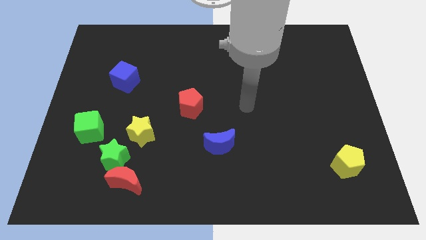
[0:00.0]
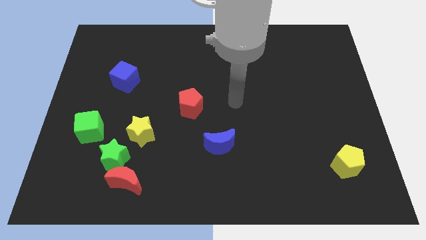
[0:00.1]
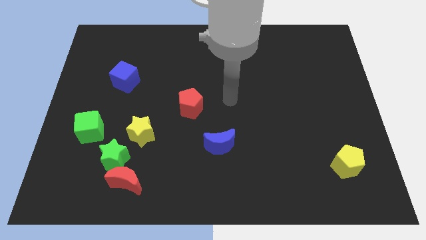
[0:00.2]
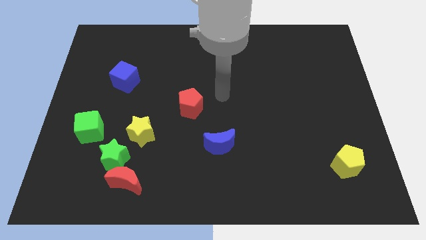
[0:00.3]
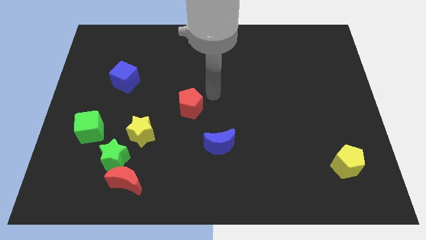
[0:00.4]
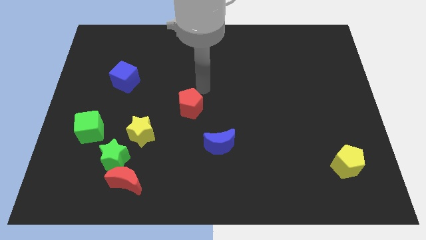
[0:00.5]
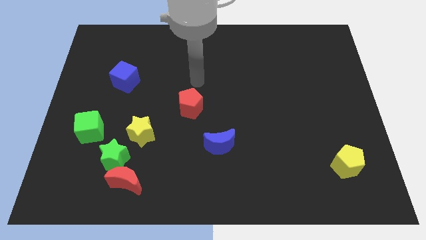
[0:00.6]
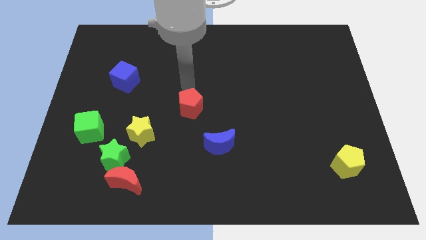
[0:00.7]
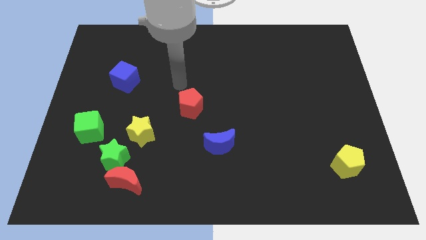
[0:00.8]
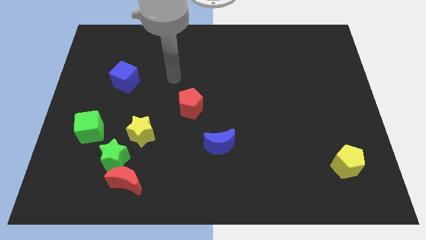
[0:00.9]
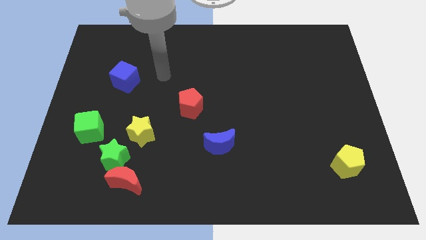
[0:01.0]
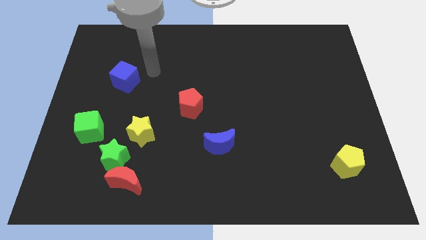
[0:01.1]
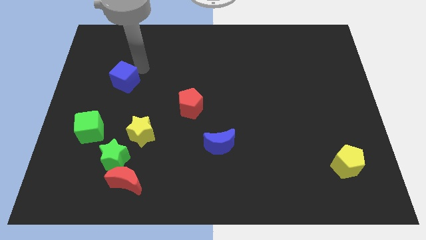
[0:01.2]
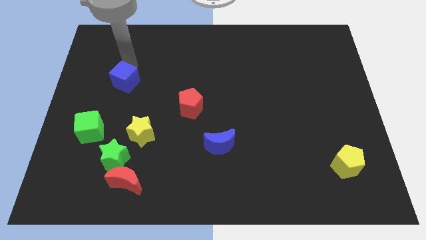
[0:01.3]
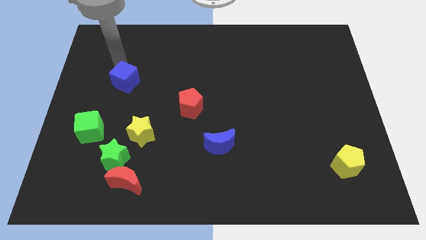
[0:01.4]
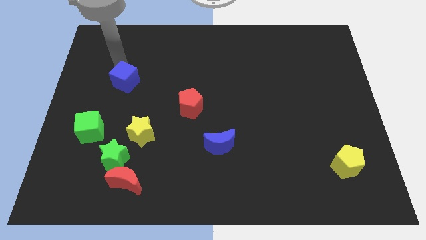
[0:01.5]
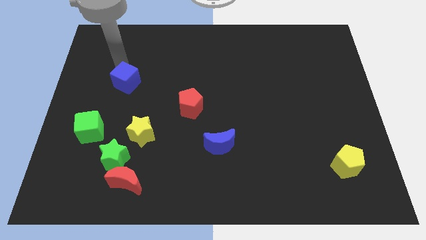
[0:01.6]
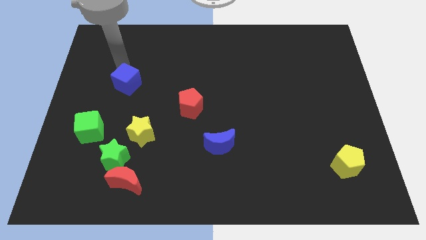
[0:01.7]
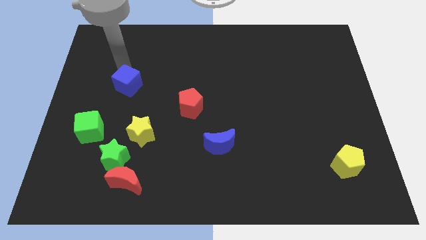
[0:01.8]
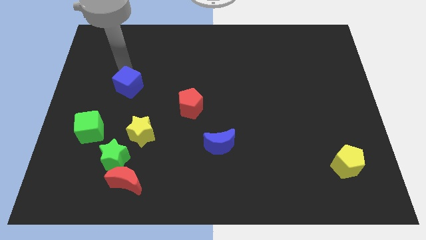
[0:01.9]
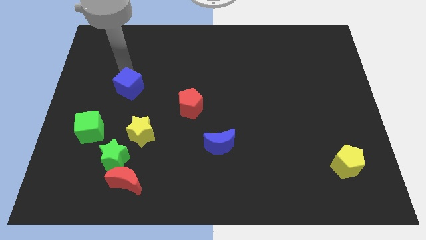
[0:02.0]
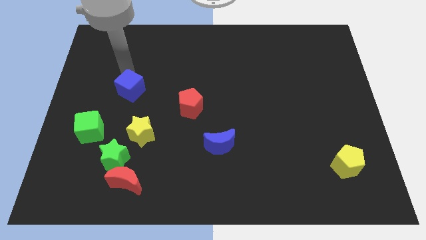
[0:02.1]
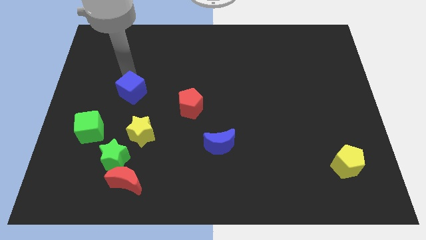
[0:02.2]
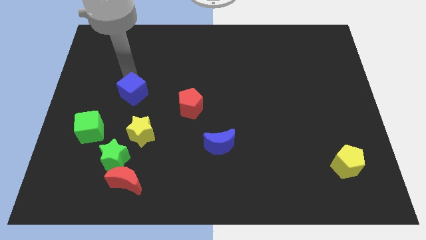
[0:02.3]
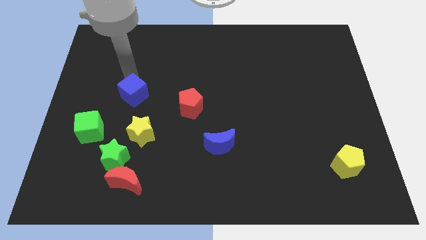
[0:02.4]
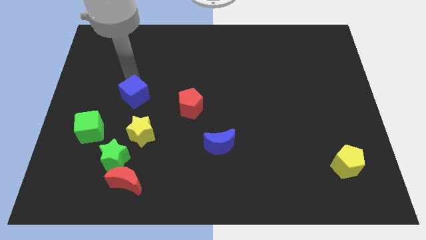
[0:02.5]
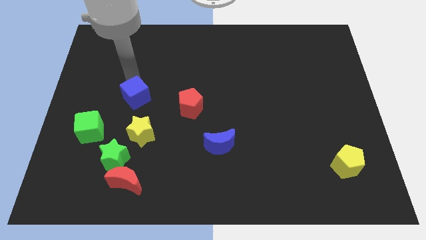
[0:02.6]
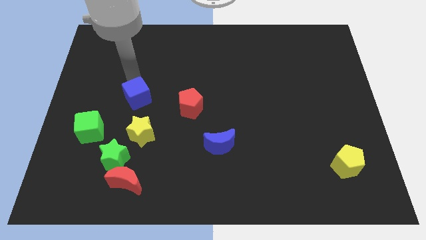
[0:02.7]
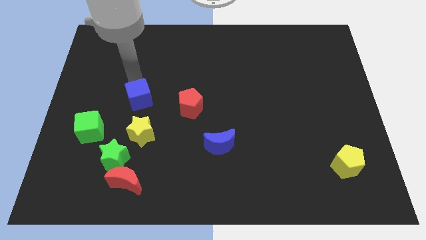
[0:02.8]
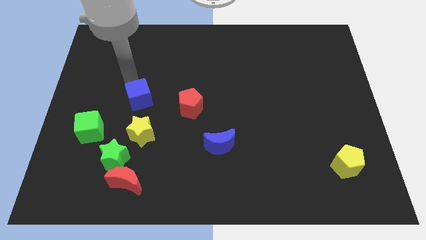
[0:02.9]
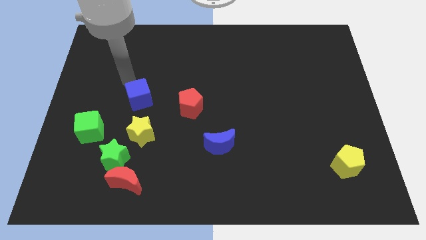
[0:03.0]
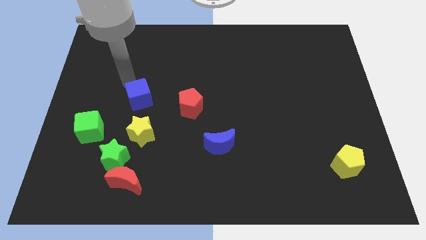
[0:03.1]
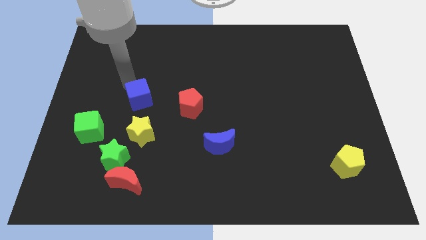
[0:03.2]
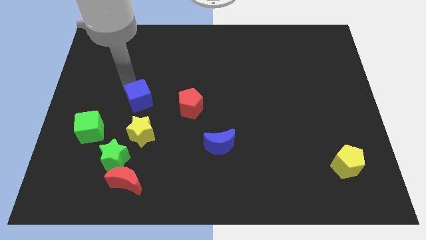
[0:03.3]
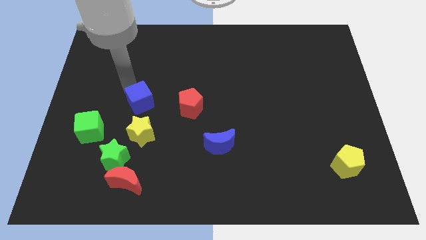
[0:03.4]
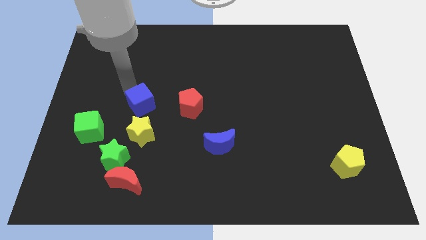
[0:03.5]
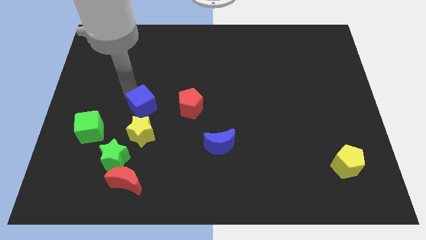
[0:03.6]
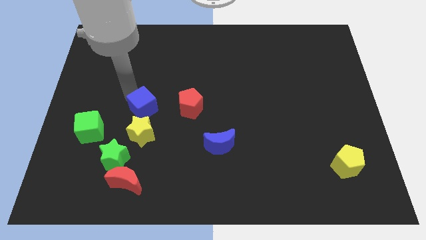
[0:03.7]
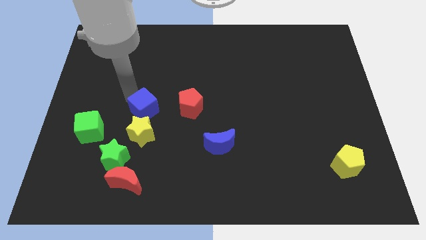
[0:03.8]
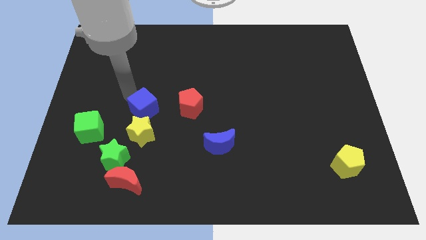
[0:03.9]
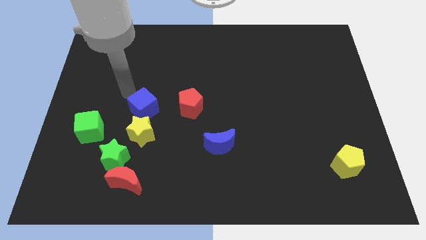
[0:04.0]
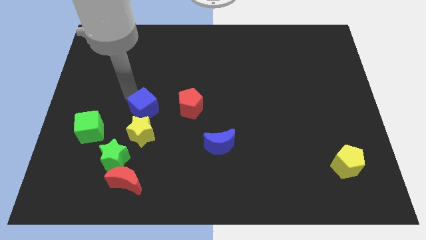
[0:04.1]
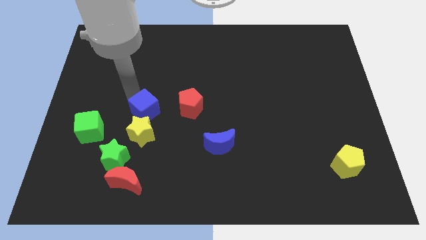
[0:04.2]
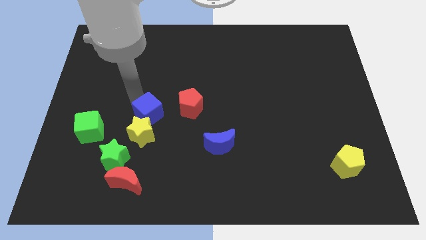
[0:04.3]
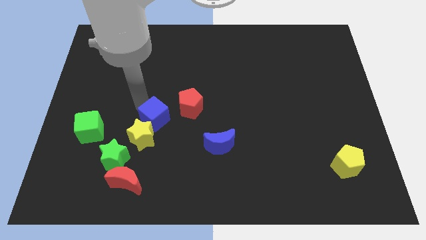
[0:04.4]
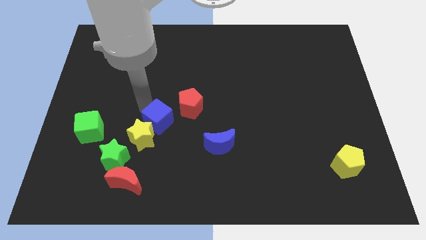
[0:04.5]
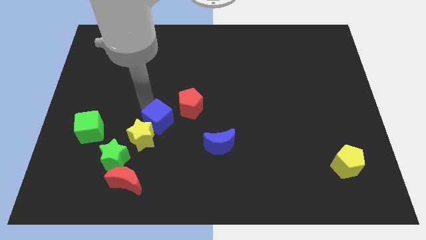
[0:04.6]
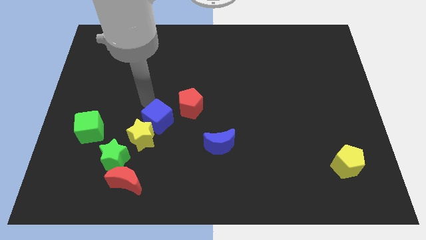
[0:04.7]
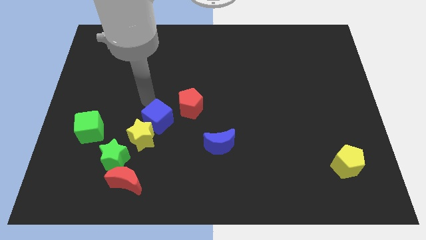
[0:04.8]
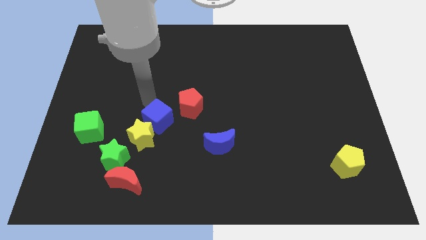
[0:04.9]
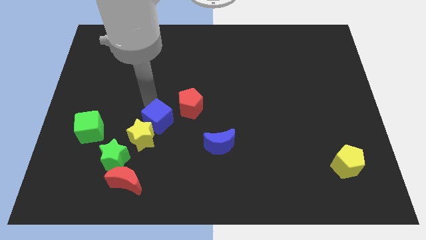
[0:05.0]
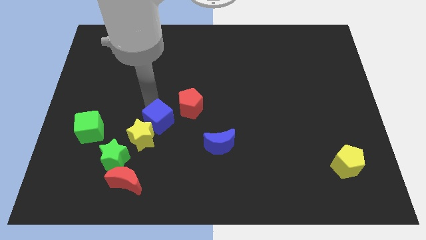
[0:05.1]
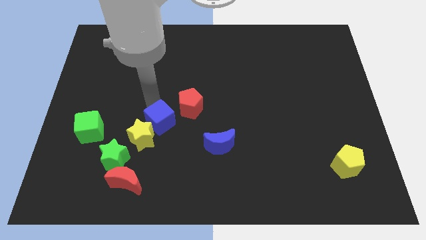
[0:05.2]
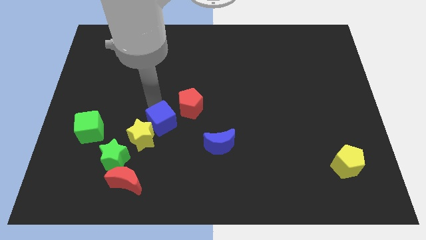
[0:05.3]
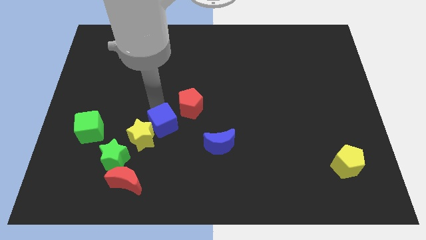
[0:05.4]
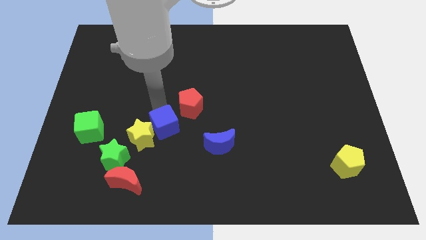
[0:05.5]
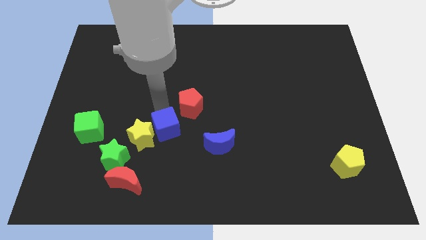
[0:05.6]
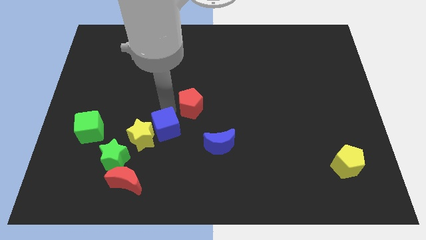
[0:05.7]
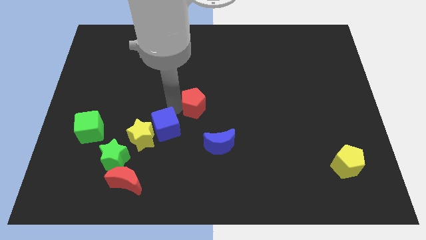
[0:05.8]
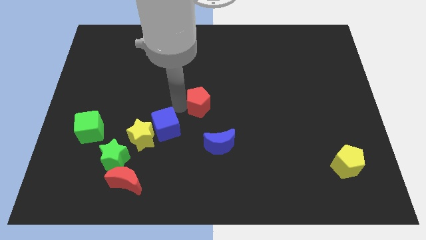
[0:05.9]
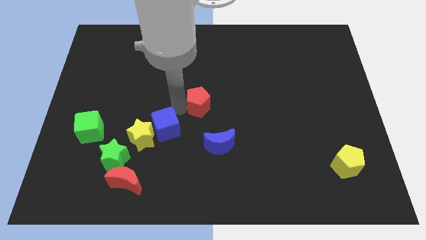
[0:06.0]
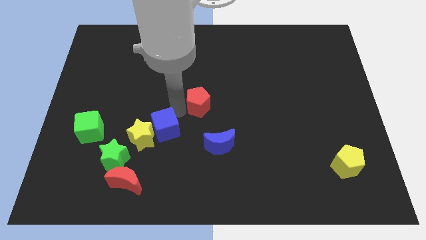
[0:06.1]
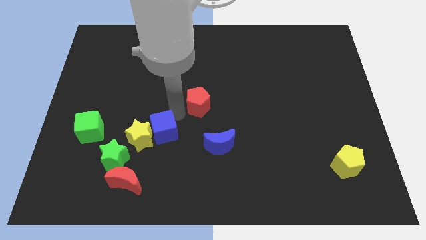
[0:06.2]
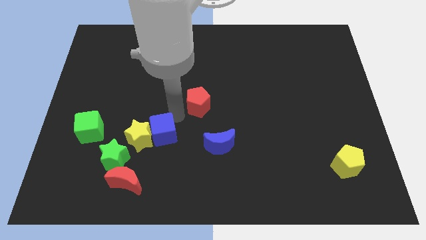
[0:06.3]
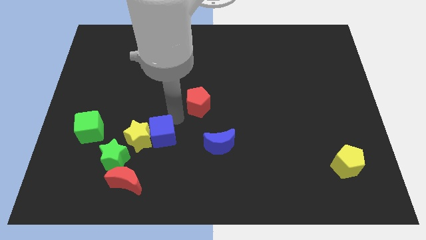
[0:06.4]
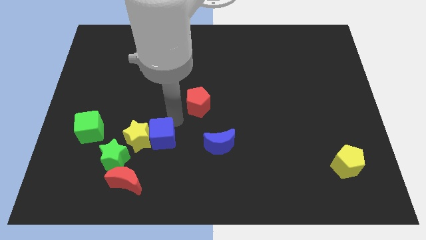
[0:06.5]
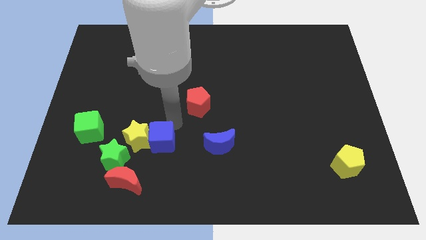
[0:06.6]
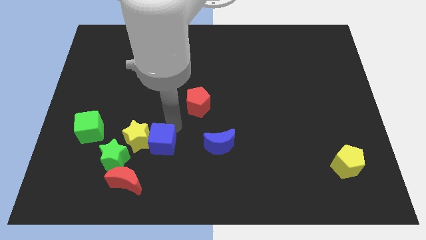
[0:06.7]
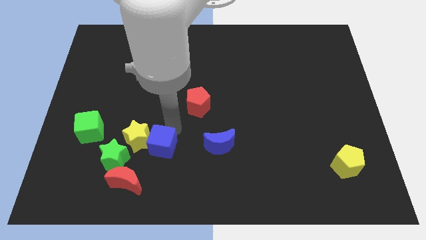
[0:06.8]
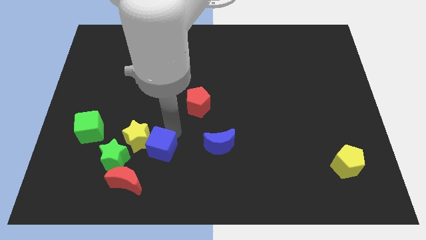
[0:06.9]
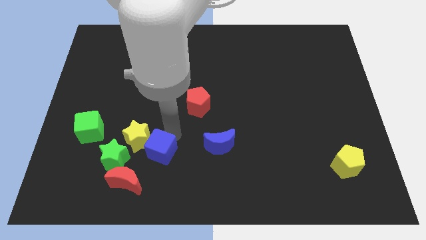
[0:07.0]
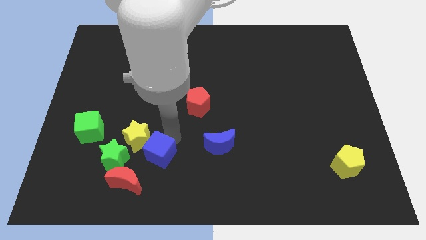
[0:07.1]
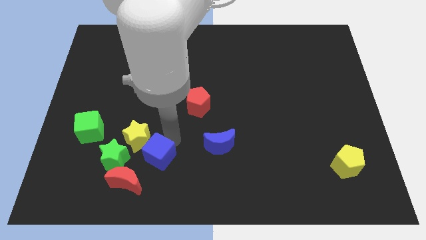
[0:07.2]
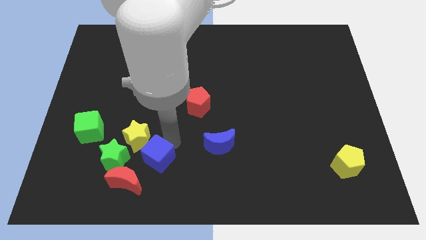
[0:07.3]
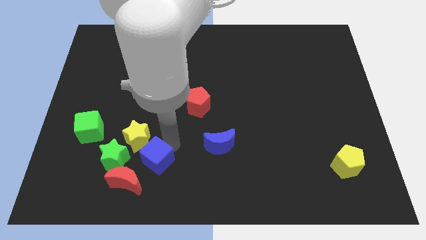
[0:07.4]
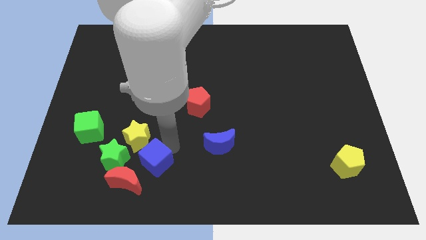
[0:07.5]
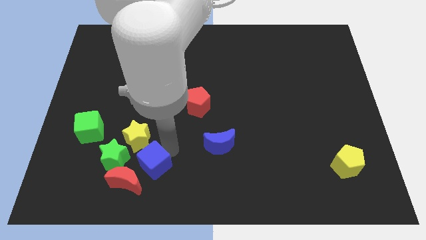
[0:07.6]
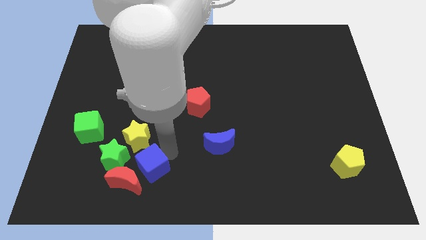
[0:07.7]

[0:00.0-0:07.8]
slide the blue cube next to the red moon
